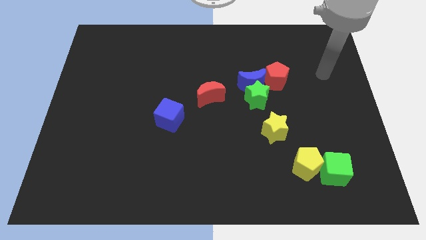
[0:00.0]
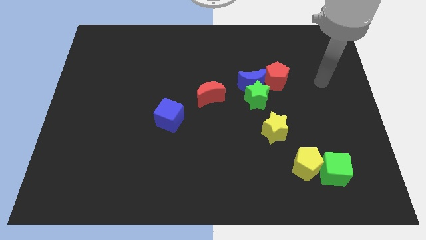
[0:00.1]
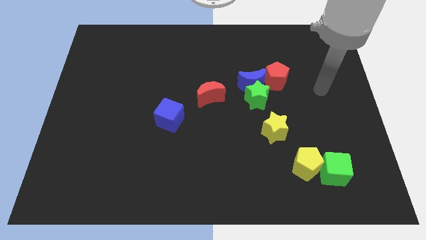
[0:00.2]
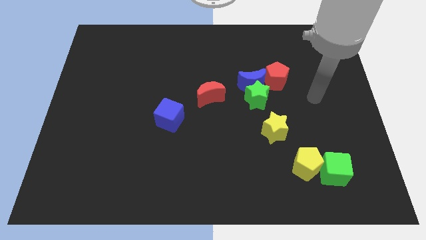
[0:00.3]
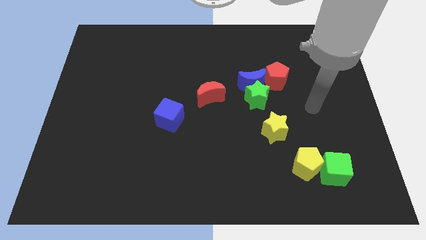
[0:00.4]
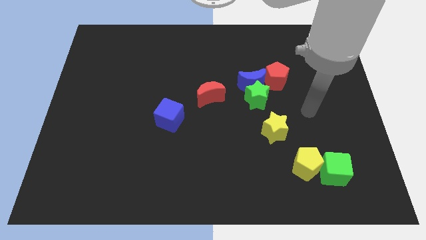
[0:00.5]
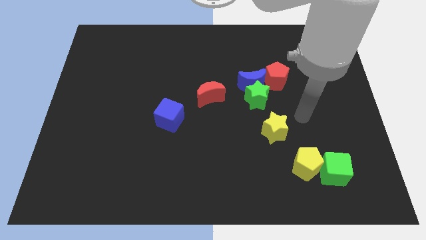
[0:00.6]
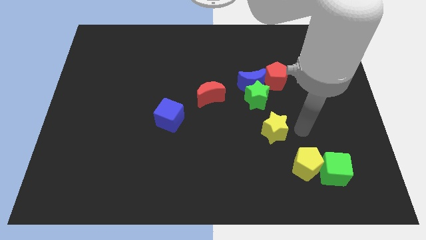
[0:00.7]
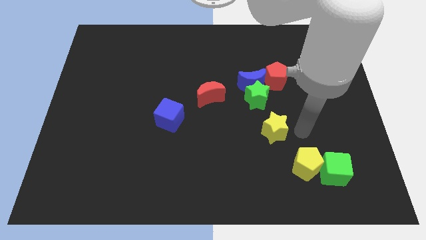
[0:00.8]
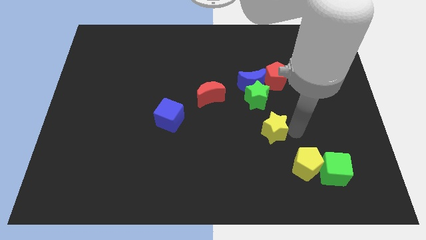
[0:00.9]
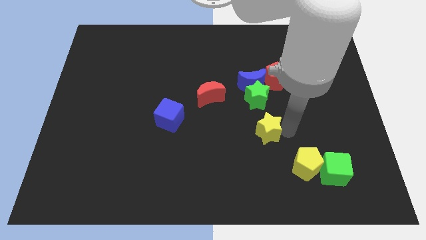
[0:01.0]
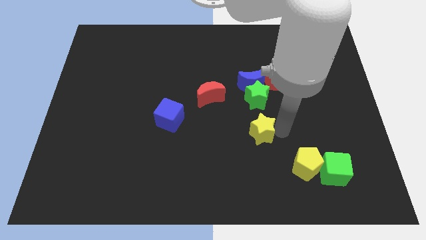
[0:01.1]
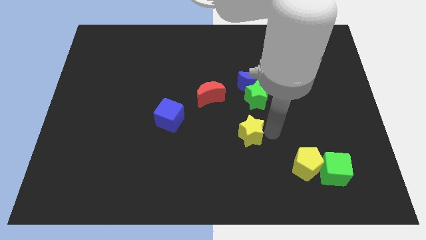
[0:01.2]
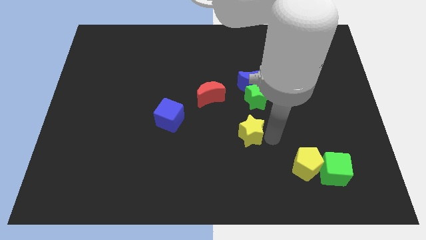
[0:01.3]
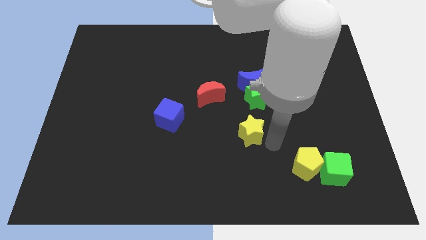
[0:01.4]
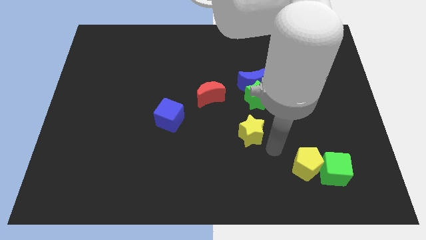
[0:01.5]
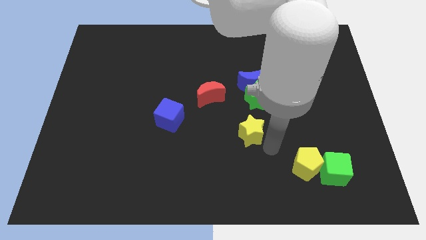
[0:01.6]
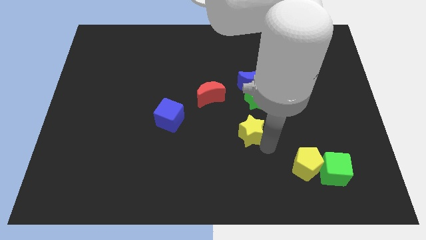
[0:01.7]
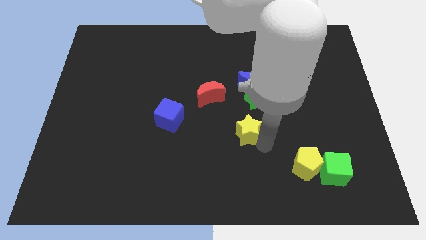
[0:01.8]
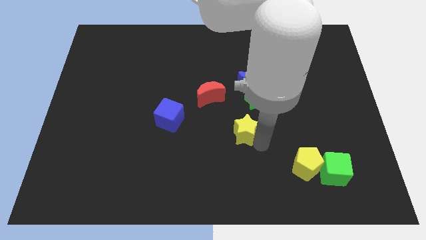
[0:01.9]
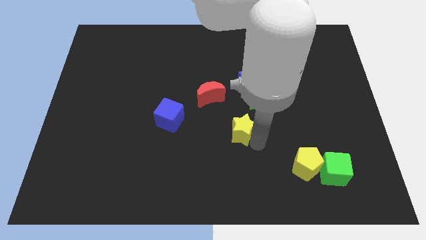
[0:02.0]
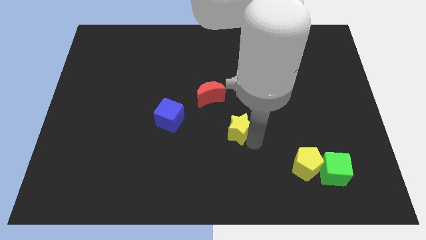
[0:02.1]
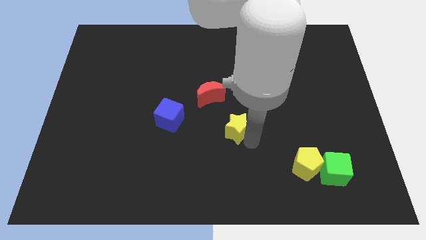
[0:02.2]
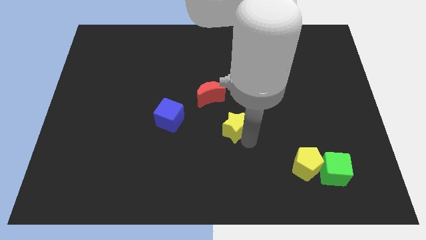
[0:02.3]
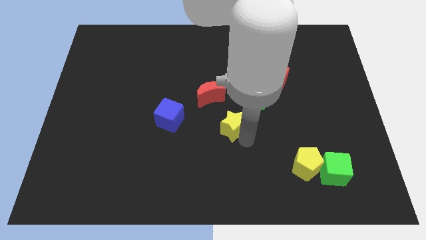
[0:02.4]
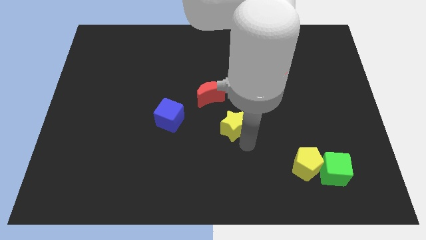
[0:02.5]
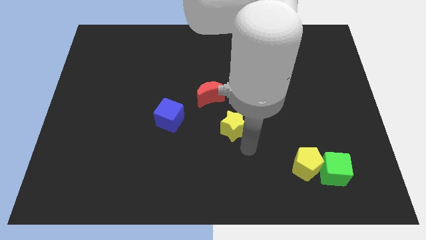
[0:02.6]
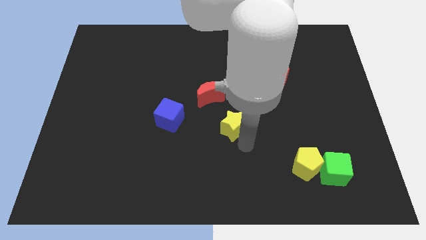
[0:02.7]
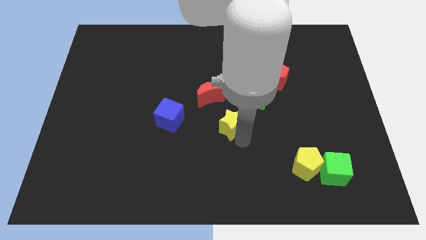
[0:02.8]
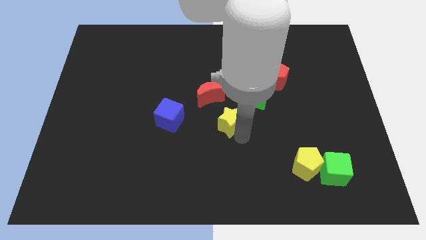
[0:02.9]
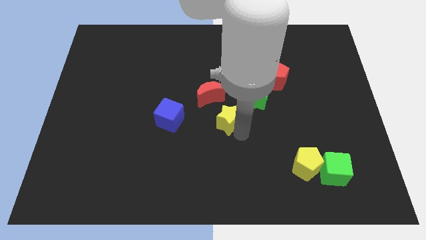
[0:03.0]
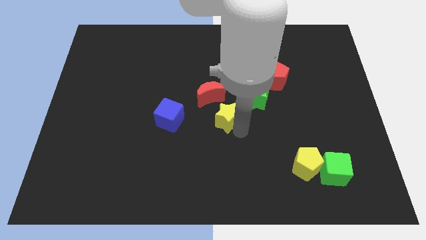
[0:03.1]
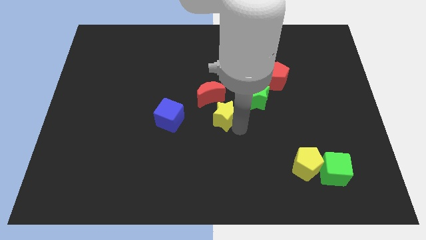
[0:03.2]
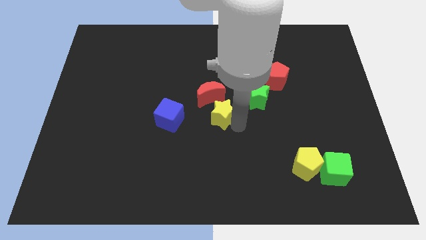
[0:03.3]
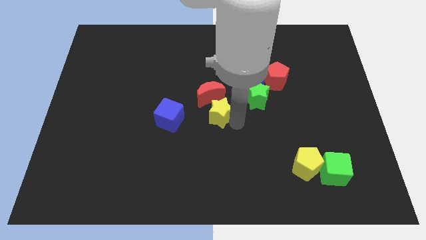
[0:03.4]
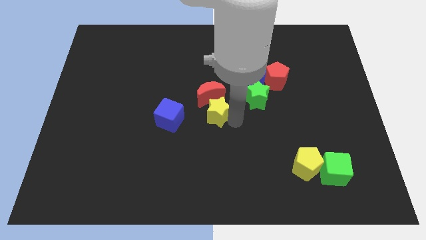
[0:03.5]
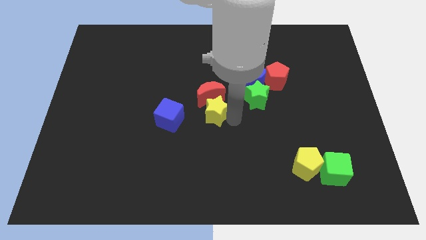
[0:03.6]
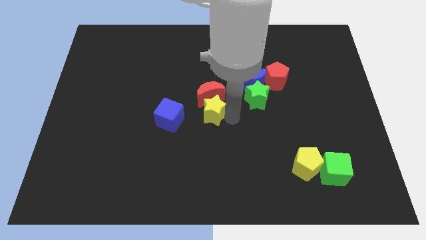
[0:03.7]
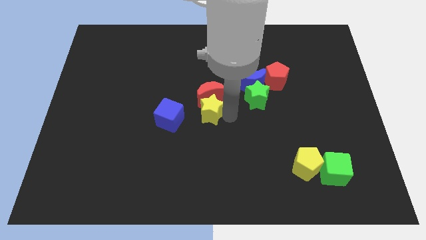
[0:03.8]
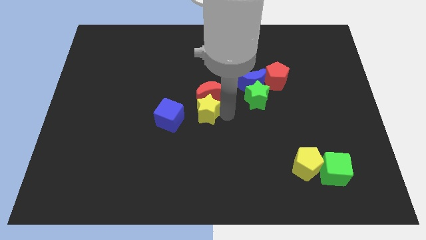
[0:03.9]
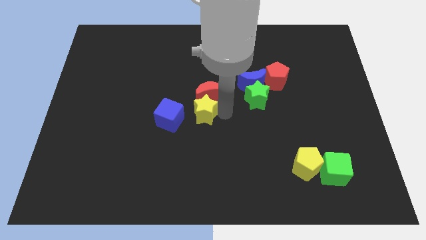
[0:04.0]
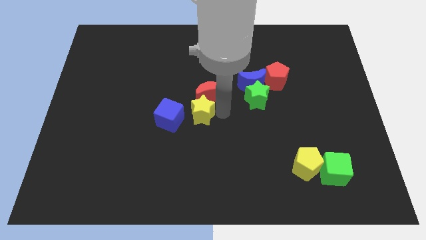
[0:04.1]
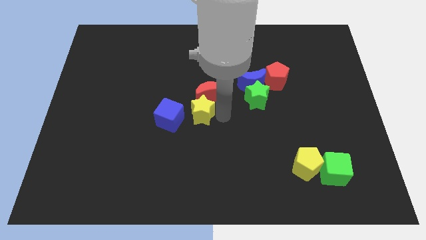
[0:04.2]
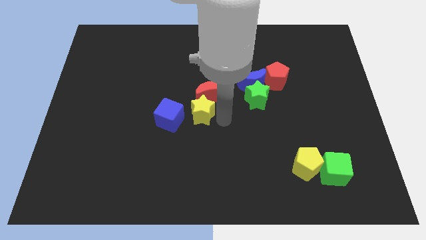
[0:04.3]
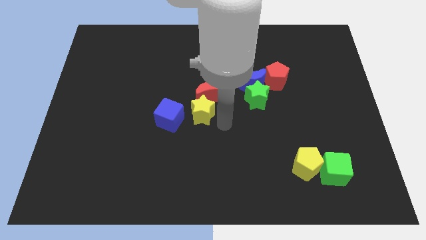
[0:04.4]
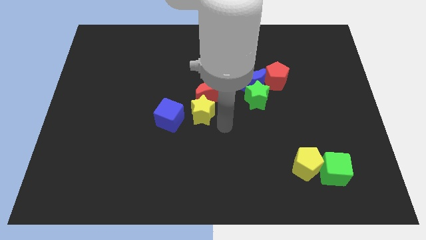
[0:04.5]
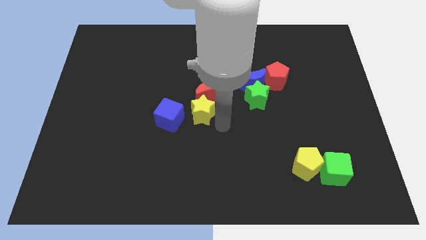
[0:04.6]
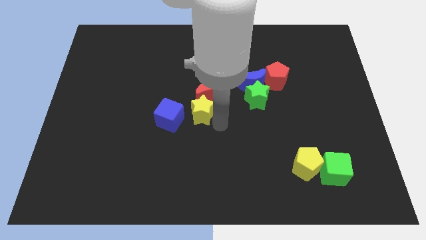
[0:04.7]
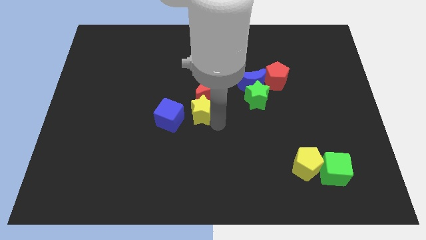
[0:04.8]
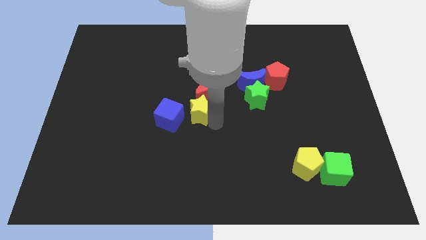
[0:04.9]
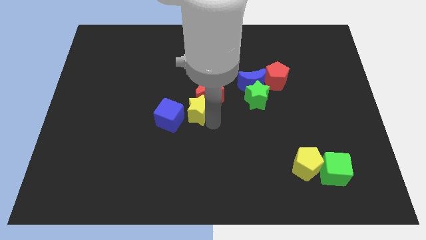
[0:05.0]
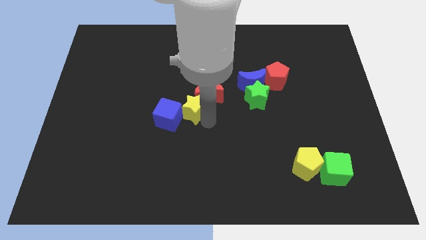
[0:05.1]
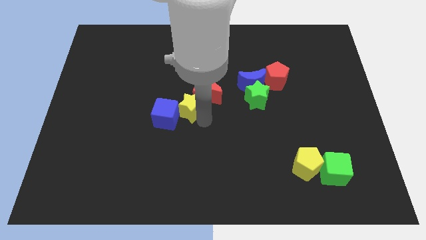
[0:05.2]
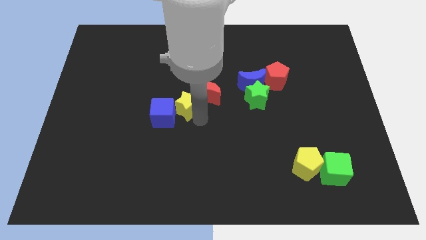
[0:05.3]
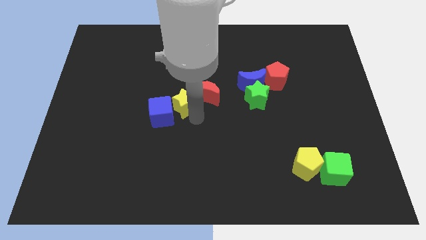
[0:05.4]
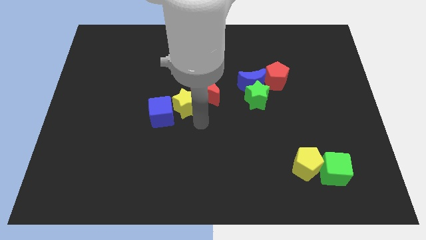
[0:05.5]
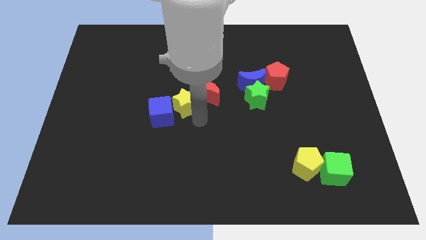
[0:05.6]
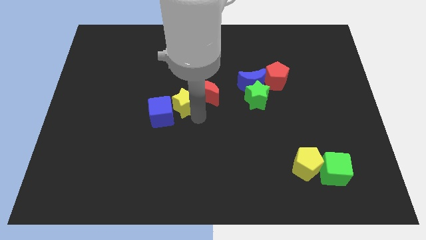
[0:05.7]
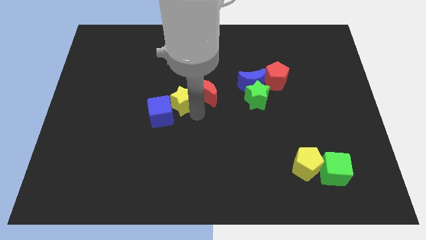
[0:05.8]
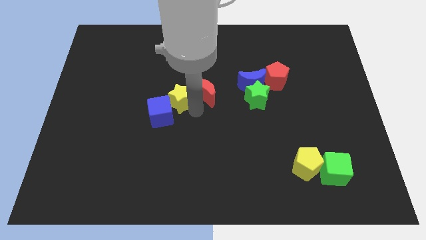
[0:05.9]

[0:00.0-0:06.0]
push the yellow star to the top side of the blue cube

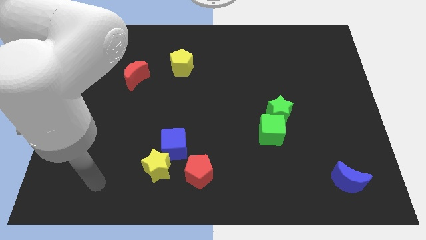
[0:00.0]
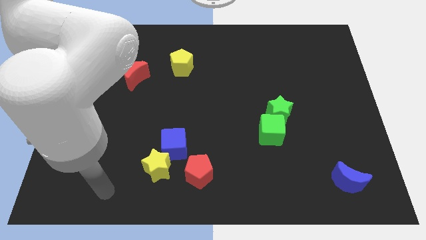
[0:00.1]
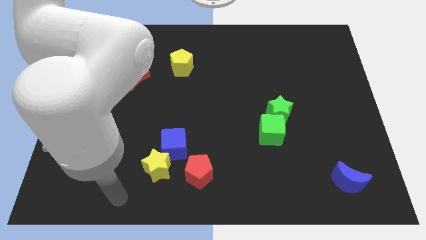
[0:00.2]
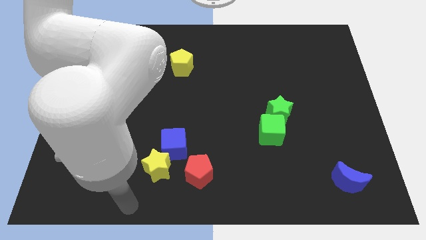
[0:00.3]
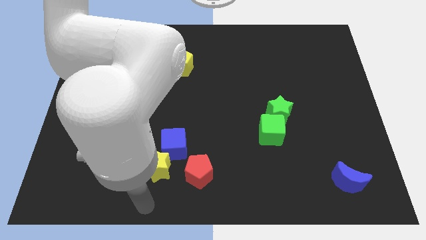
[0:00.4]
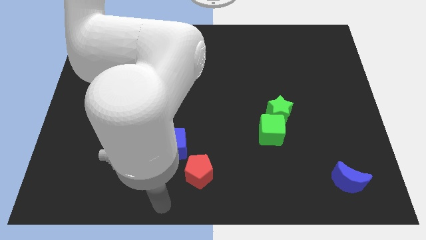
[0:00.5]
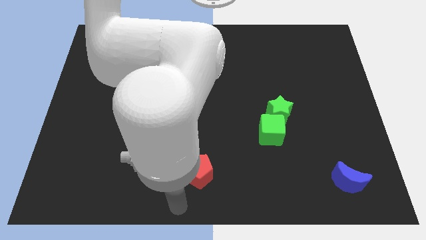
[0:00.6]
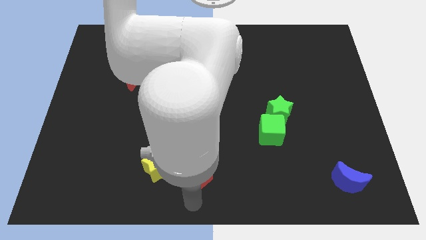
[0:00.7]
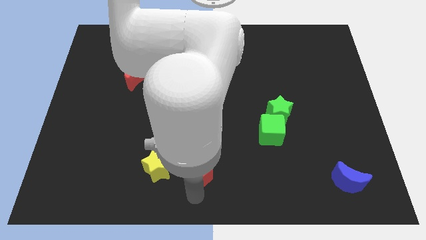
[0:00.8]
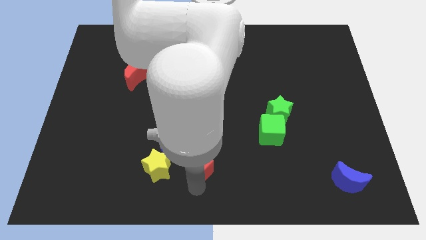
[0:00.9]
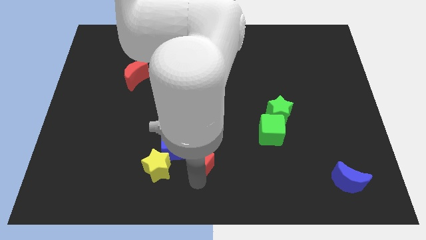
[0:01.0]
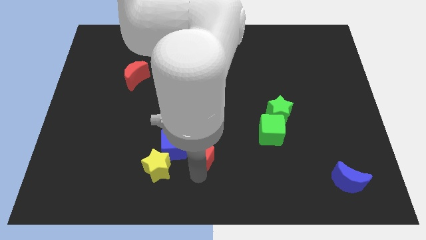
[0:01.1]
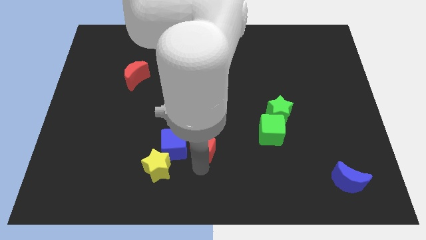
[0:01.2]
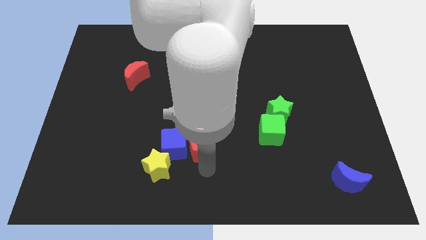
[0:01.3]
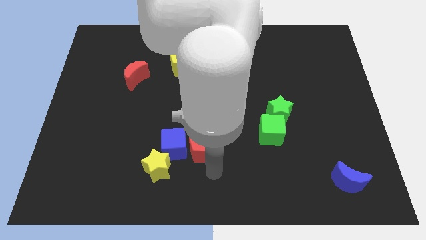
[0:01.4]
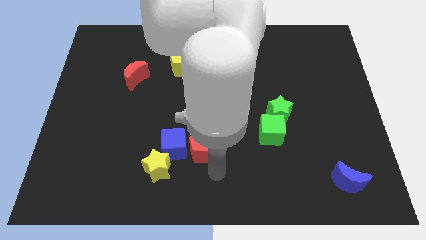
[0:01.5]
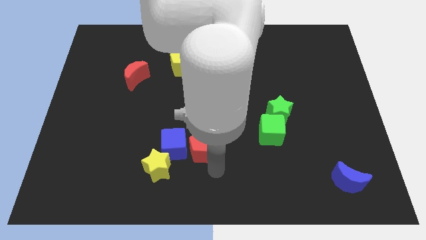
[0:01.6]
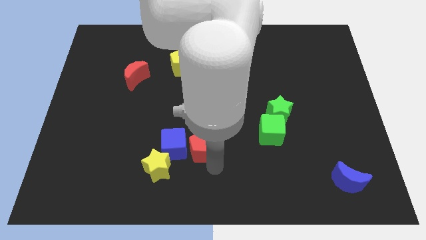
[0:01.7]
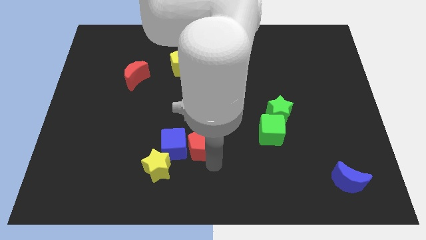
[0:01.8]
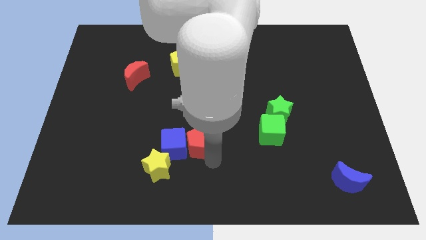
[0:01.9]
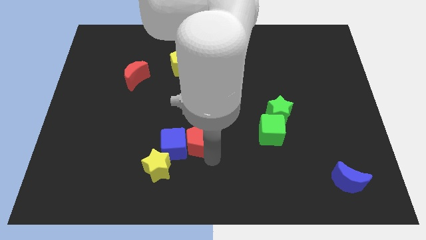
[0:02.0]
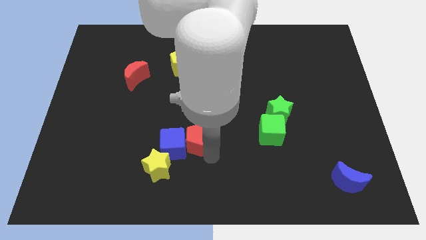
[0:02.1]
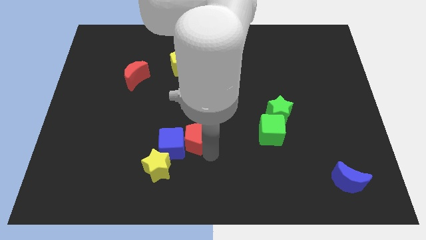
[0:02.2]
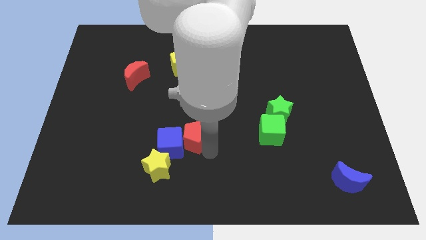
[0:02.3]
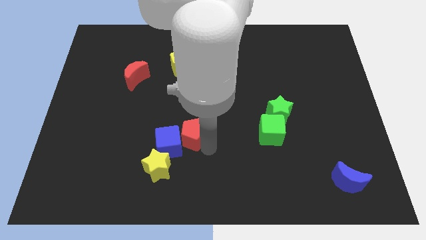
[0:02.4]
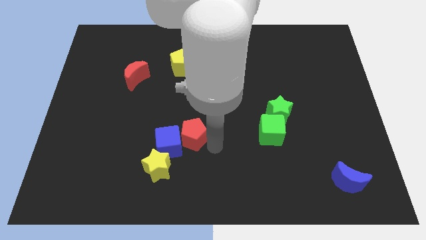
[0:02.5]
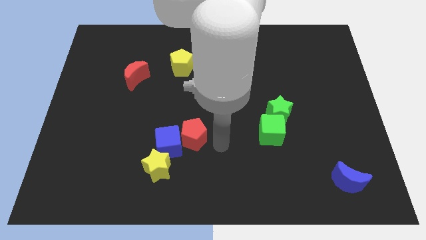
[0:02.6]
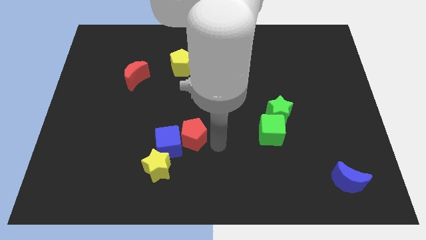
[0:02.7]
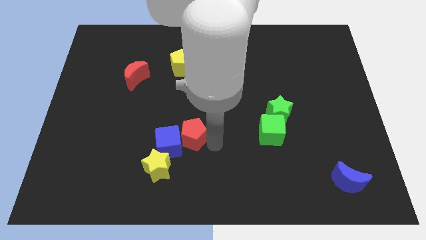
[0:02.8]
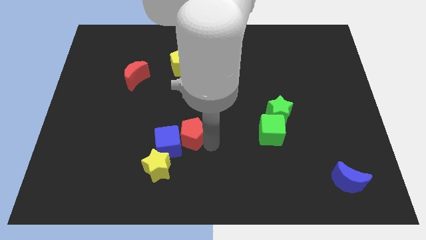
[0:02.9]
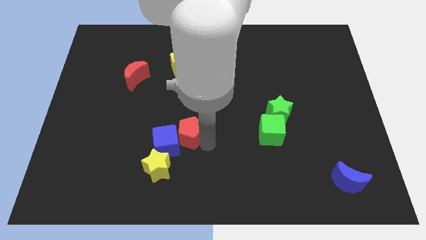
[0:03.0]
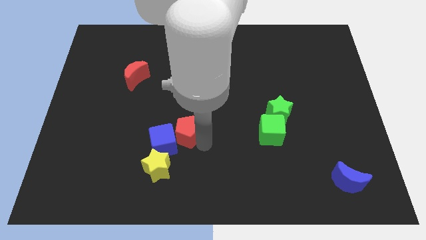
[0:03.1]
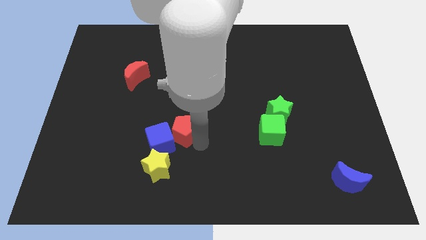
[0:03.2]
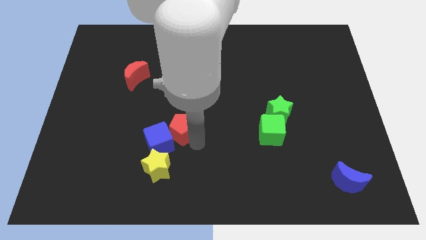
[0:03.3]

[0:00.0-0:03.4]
move the red pentagon above the yellow star
